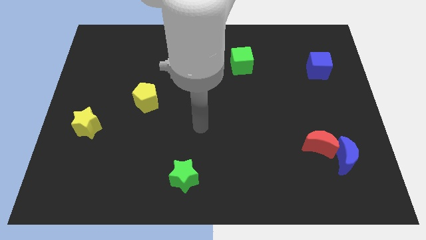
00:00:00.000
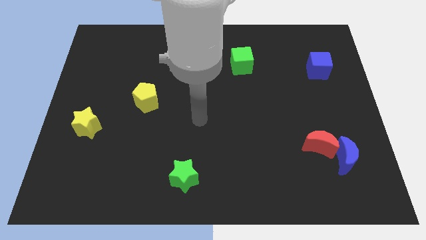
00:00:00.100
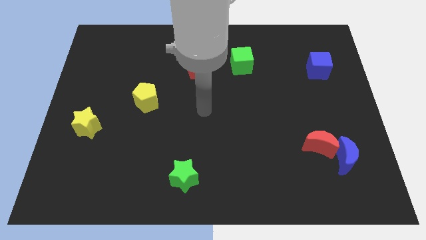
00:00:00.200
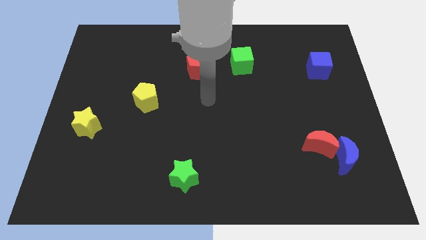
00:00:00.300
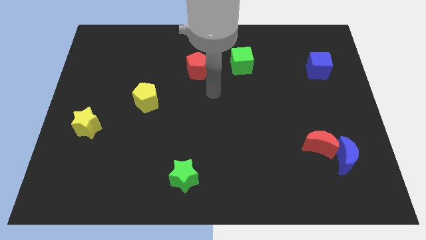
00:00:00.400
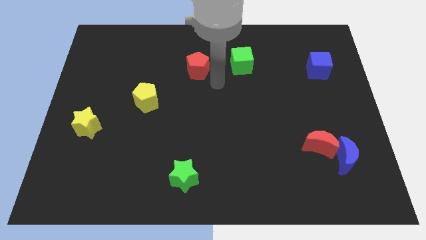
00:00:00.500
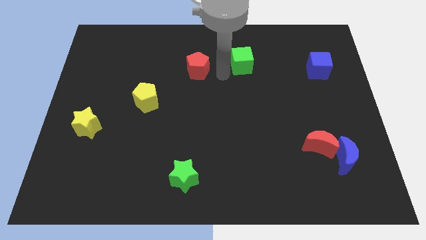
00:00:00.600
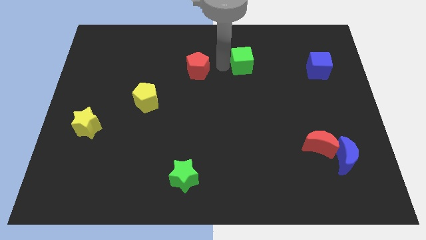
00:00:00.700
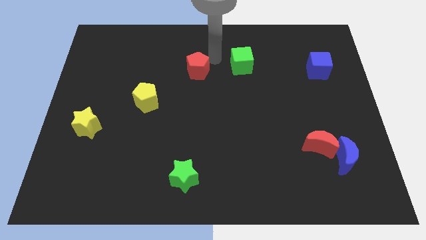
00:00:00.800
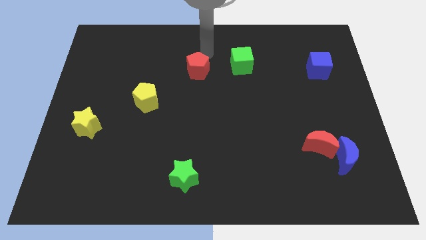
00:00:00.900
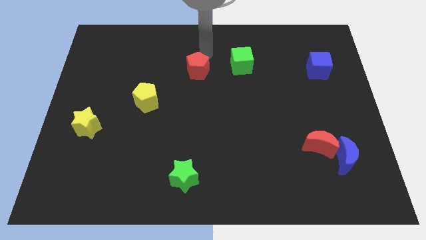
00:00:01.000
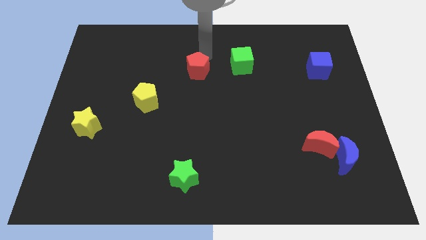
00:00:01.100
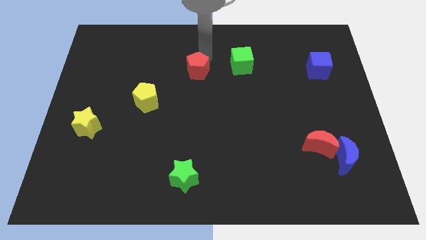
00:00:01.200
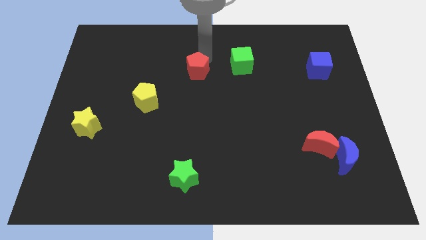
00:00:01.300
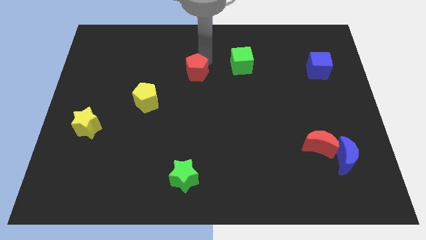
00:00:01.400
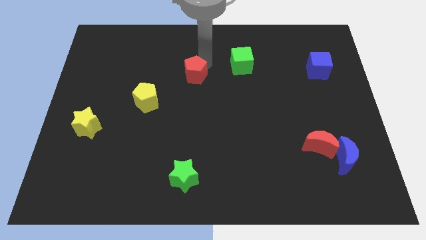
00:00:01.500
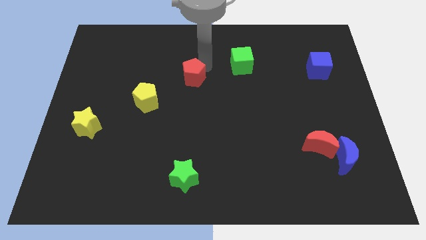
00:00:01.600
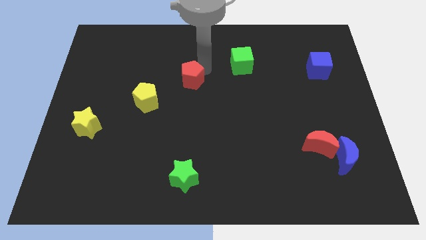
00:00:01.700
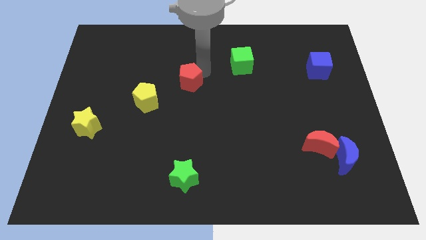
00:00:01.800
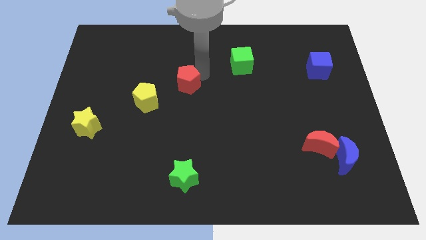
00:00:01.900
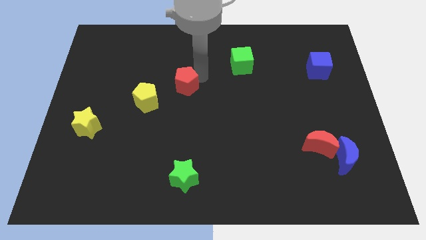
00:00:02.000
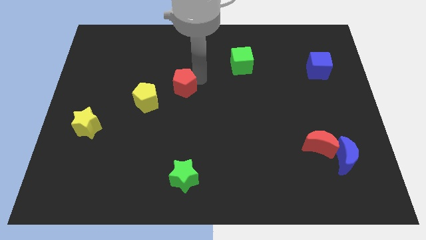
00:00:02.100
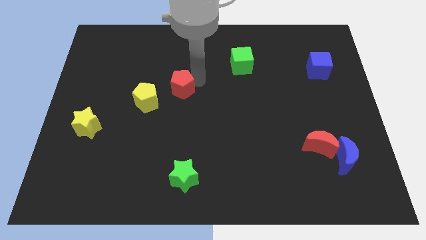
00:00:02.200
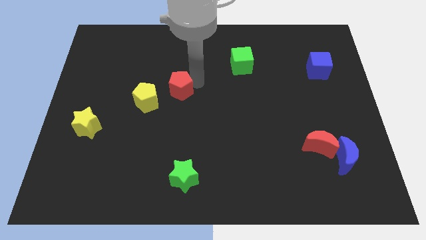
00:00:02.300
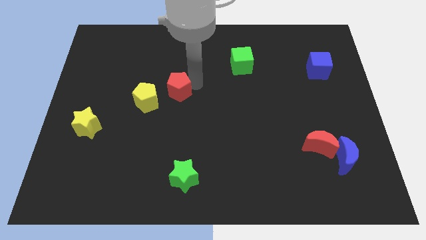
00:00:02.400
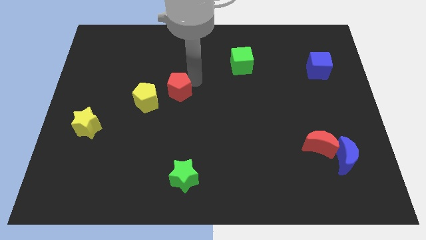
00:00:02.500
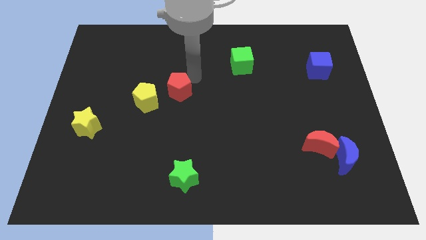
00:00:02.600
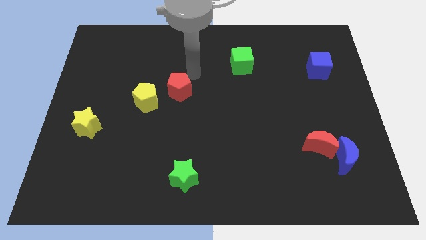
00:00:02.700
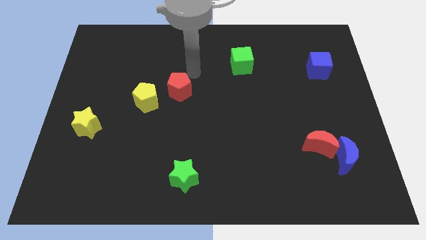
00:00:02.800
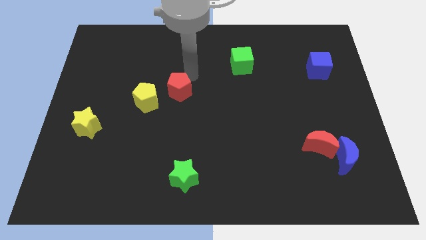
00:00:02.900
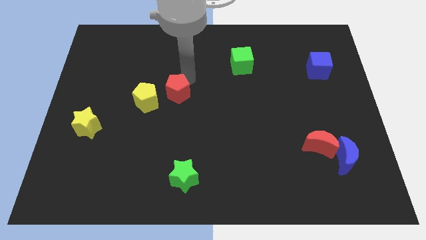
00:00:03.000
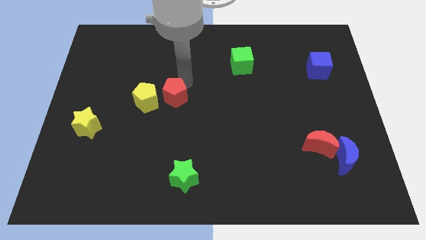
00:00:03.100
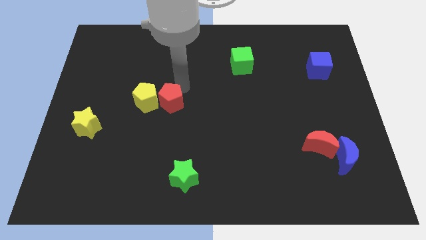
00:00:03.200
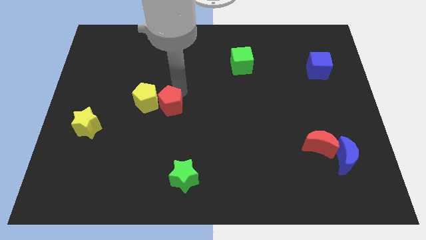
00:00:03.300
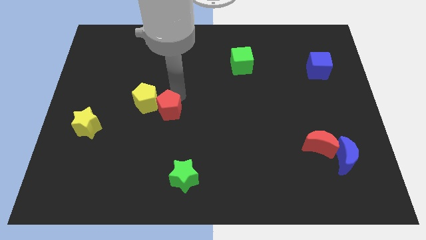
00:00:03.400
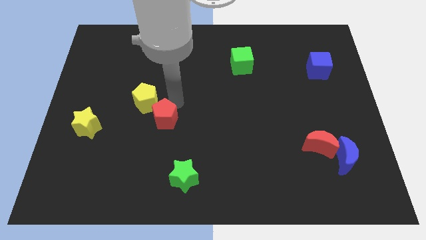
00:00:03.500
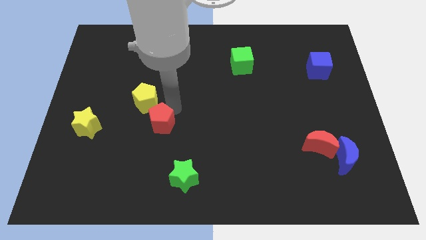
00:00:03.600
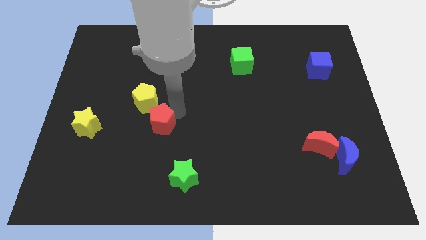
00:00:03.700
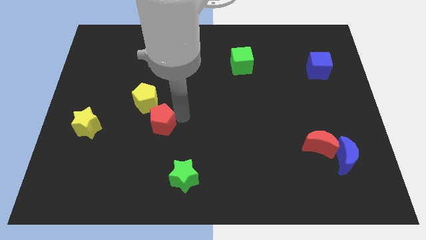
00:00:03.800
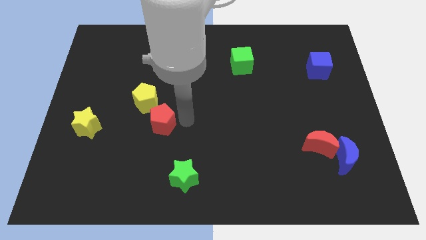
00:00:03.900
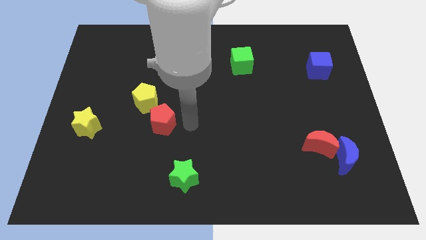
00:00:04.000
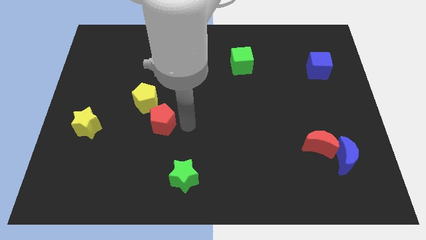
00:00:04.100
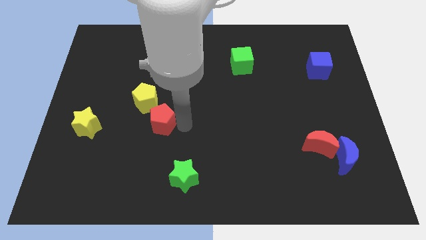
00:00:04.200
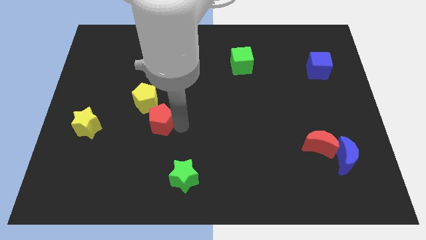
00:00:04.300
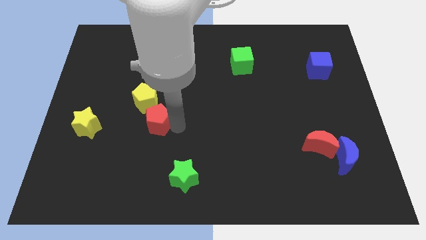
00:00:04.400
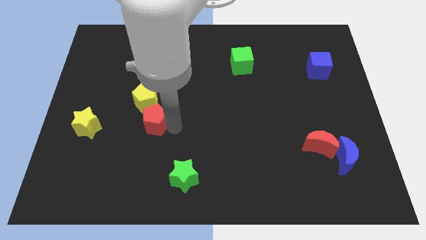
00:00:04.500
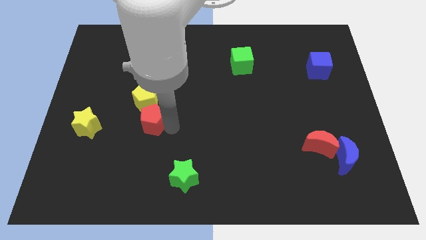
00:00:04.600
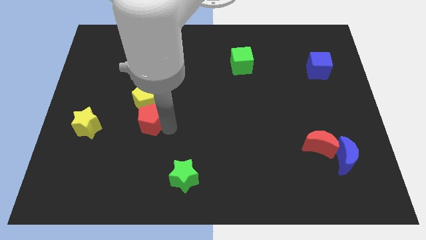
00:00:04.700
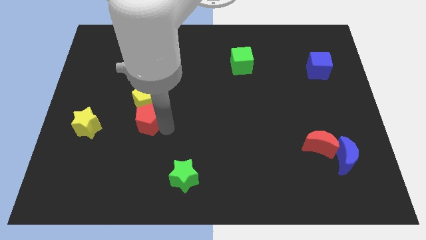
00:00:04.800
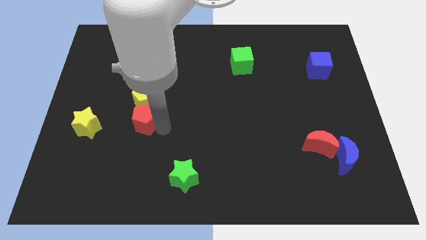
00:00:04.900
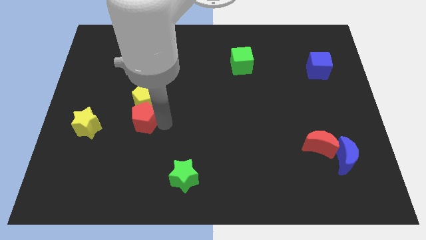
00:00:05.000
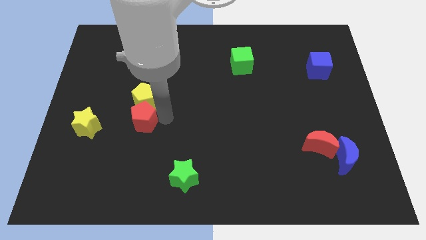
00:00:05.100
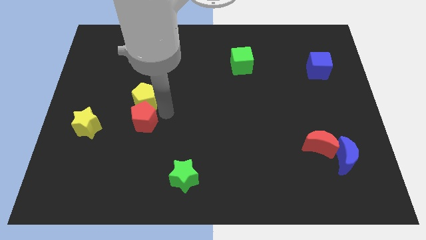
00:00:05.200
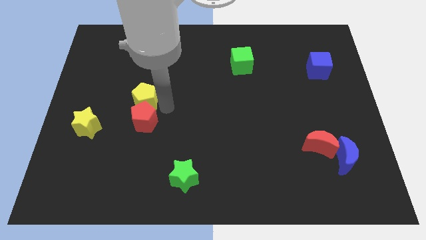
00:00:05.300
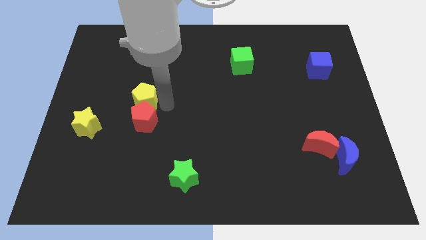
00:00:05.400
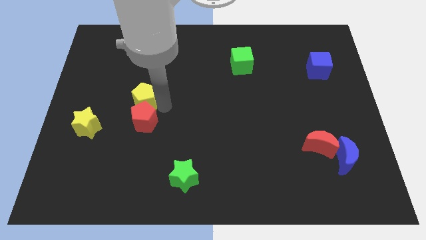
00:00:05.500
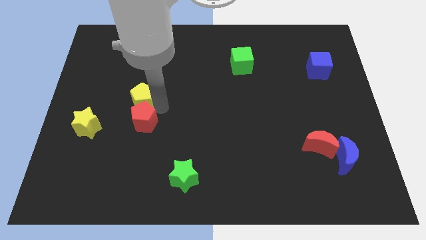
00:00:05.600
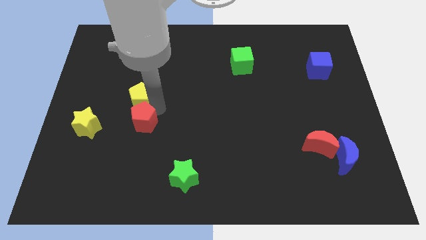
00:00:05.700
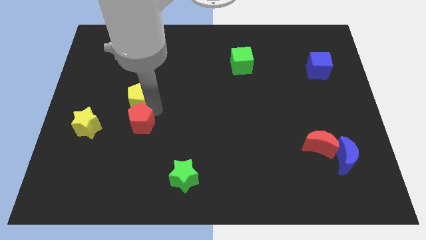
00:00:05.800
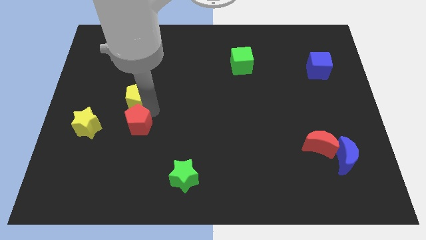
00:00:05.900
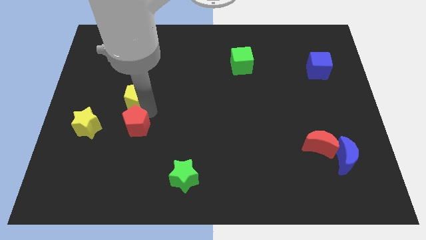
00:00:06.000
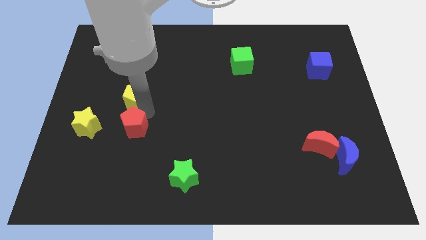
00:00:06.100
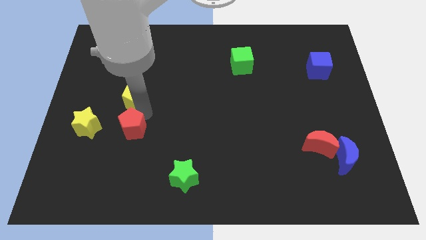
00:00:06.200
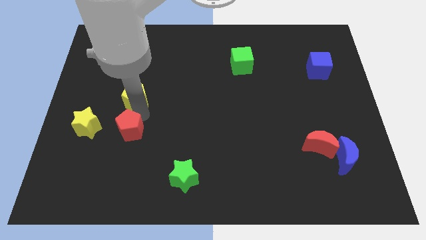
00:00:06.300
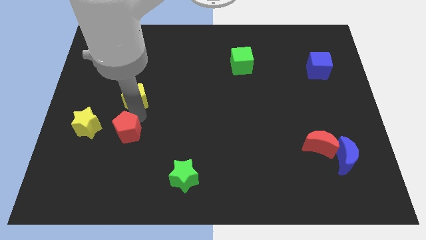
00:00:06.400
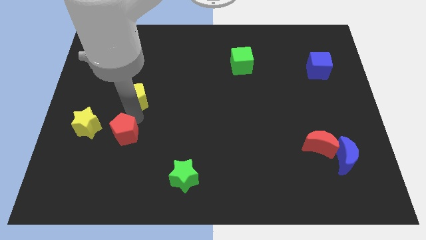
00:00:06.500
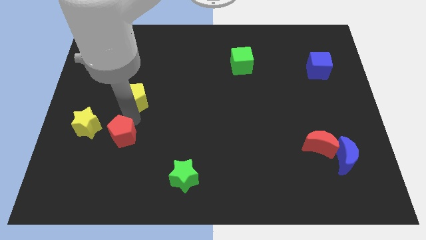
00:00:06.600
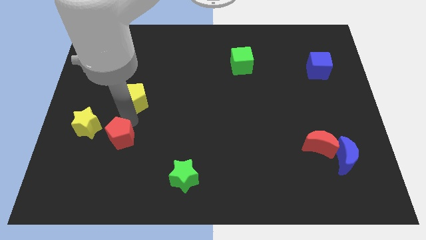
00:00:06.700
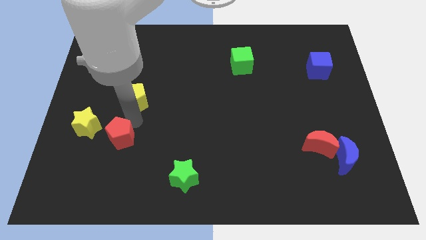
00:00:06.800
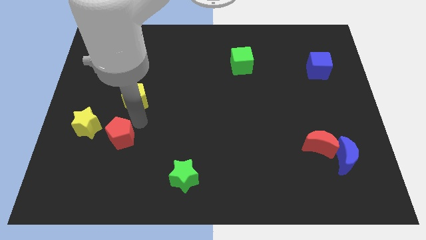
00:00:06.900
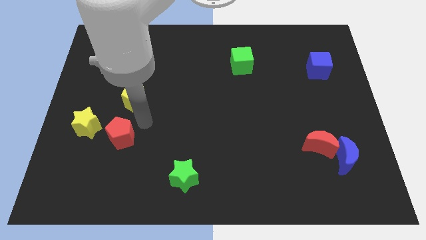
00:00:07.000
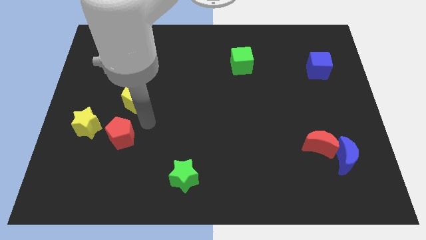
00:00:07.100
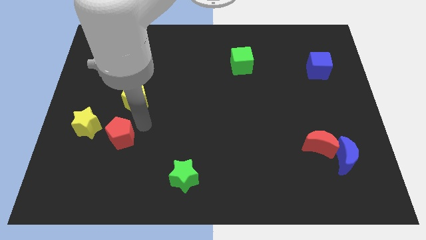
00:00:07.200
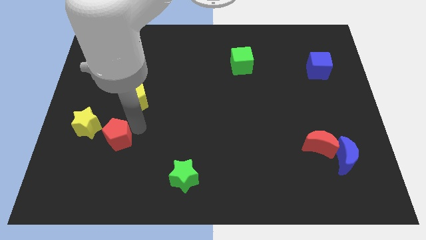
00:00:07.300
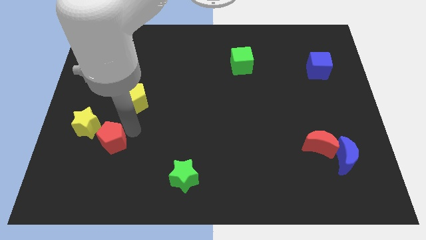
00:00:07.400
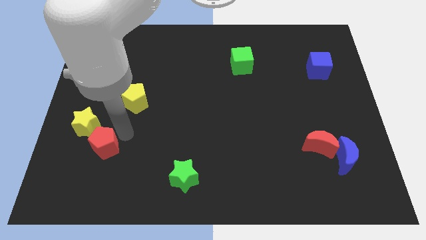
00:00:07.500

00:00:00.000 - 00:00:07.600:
slide the red pentagon below the yellow star
